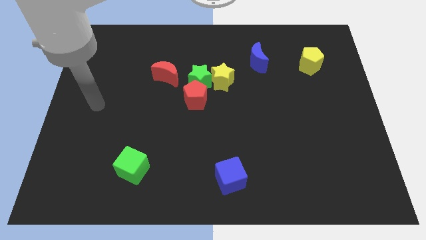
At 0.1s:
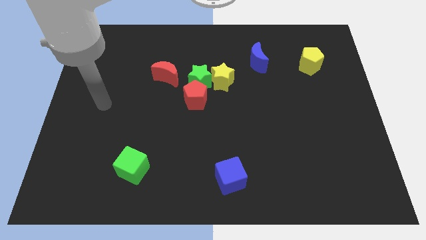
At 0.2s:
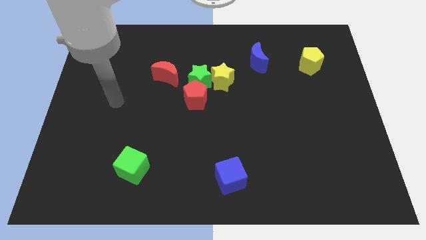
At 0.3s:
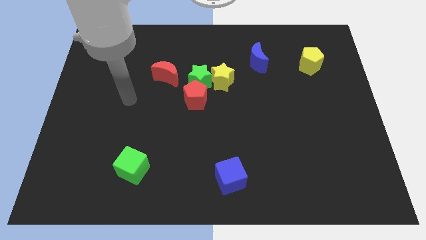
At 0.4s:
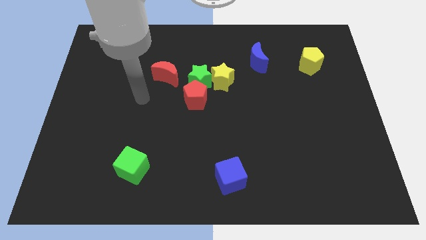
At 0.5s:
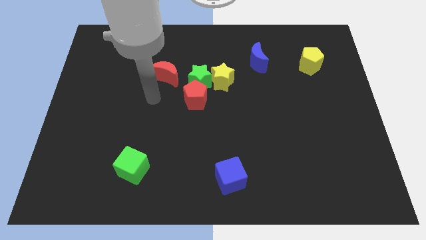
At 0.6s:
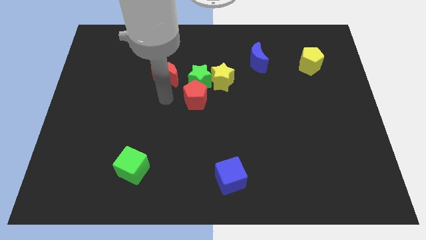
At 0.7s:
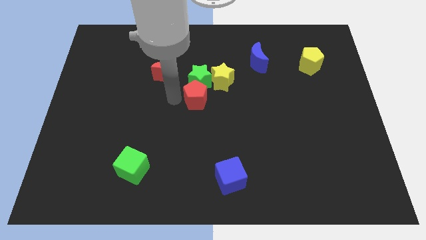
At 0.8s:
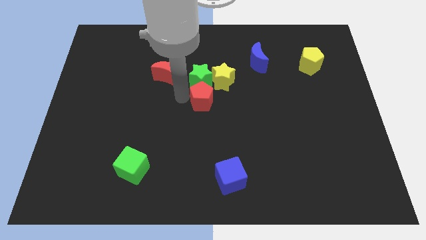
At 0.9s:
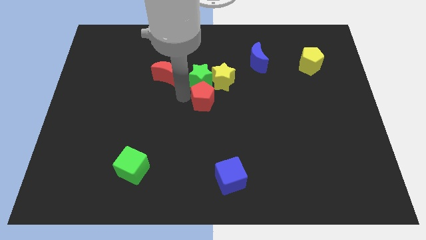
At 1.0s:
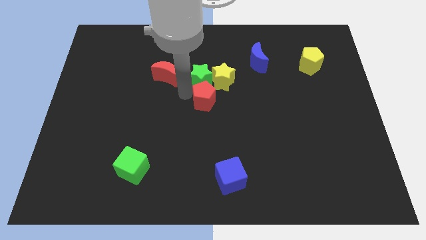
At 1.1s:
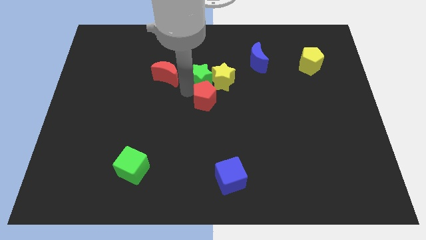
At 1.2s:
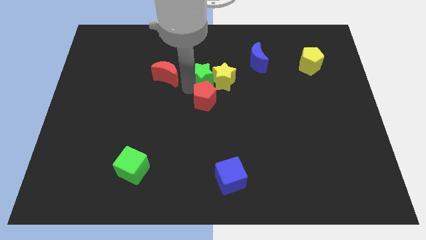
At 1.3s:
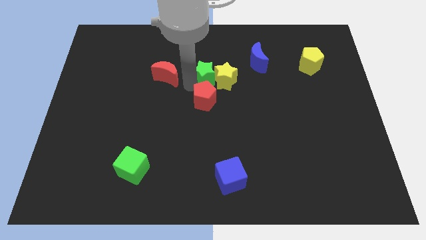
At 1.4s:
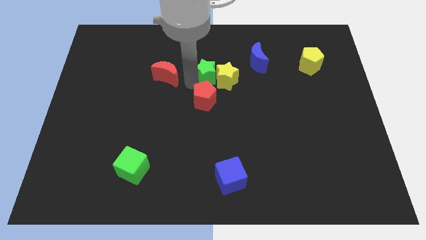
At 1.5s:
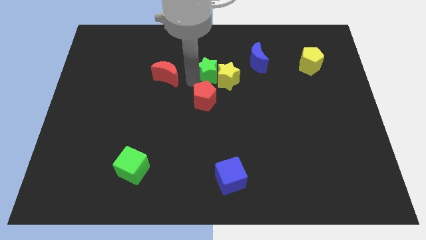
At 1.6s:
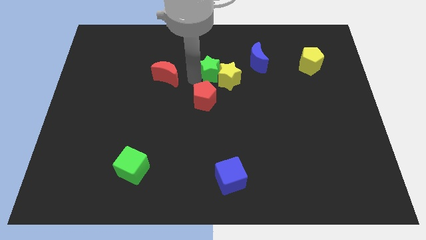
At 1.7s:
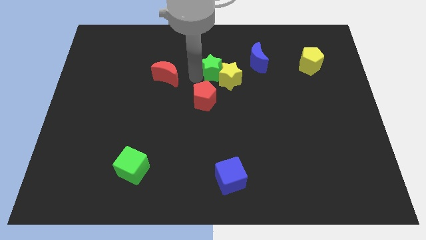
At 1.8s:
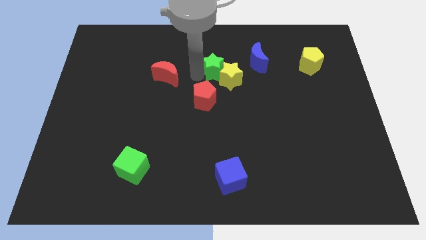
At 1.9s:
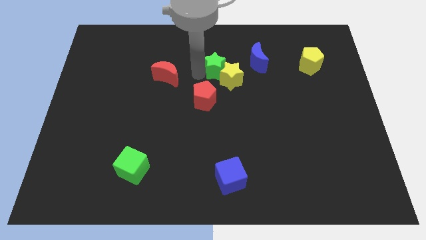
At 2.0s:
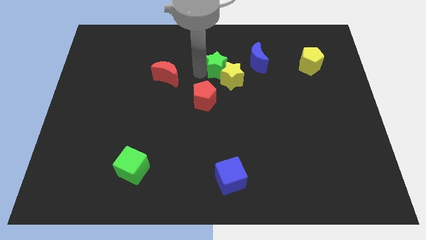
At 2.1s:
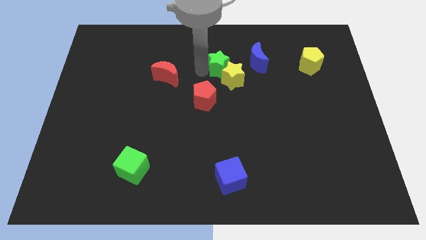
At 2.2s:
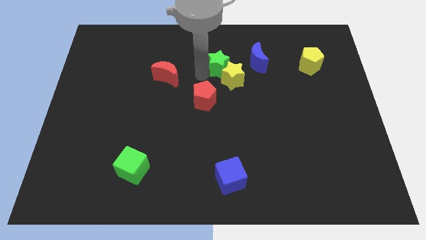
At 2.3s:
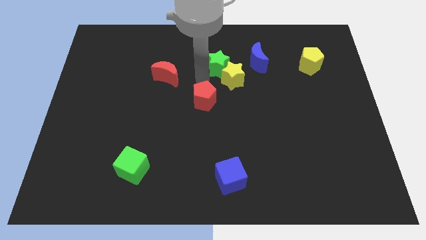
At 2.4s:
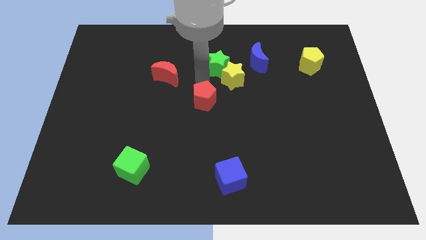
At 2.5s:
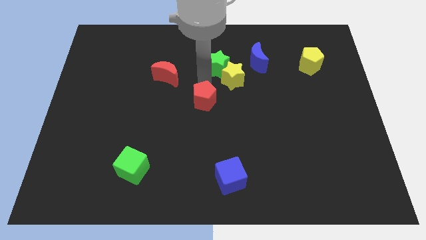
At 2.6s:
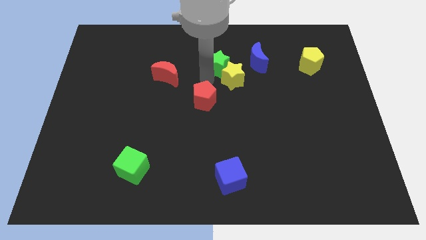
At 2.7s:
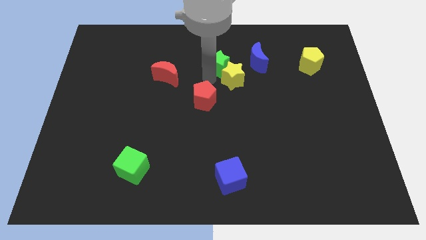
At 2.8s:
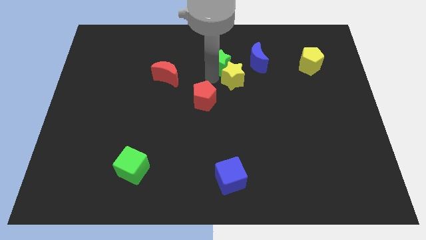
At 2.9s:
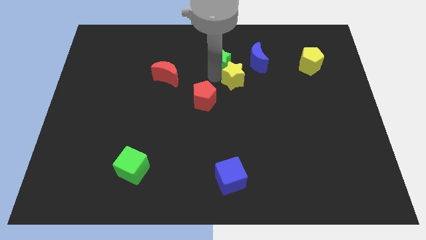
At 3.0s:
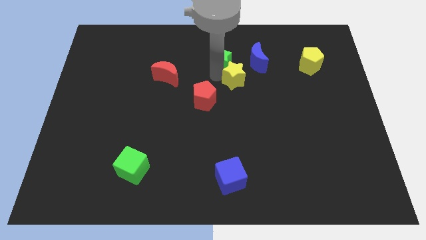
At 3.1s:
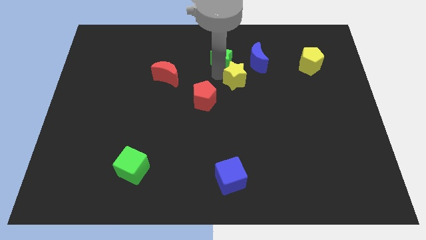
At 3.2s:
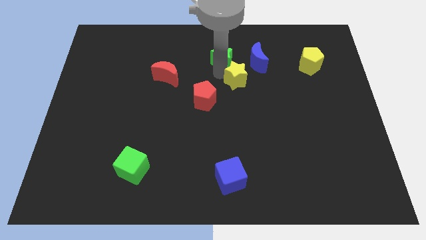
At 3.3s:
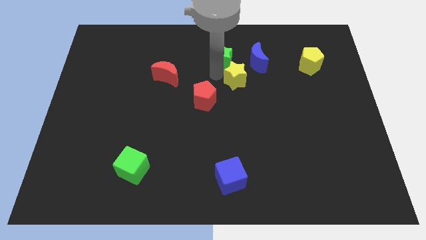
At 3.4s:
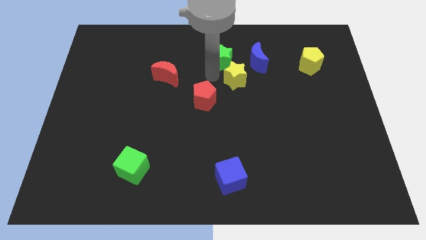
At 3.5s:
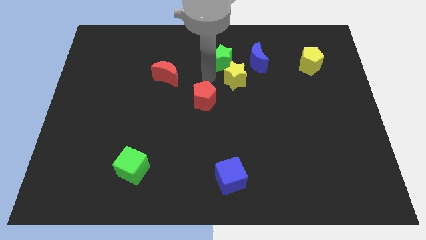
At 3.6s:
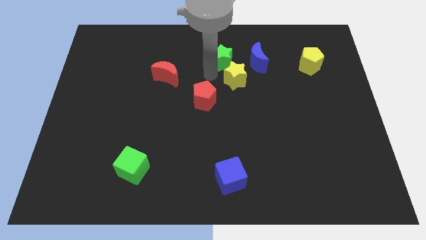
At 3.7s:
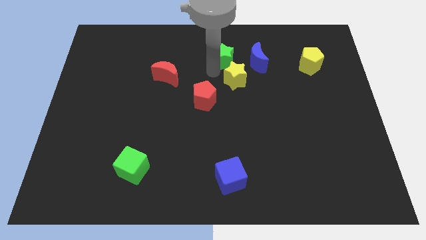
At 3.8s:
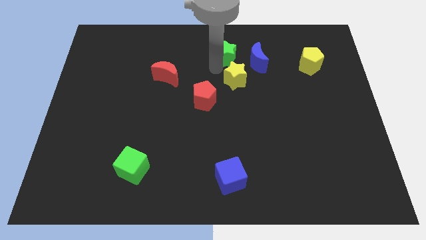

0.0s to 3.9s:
pull the green star apart from the clump

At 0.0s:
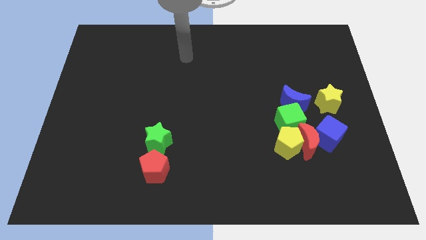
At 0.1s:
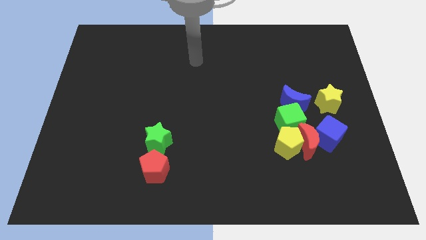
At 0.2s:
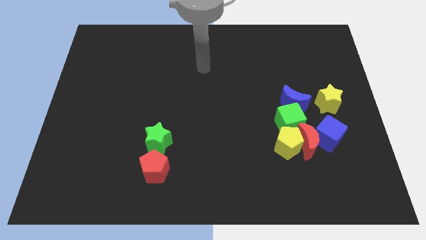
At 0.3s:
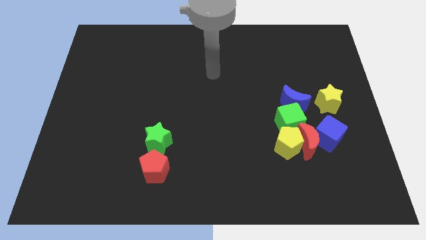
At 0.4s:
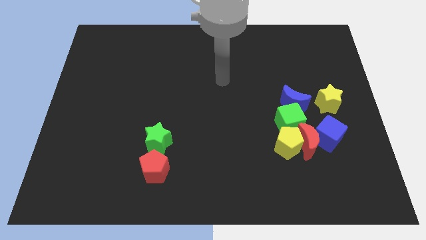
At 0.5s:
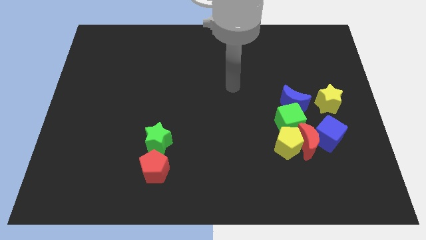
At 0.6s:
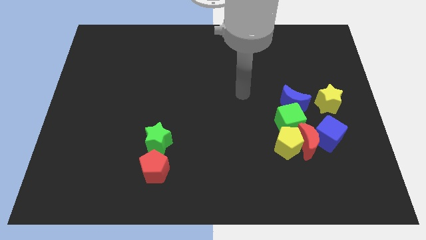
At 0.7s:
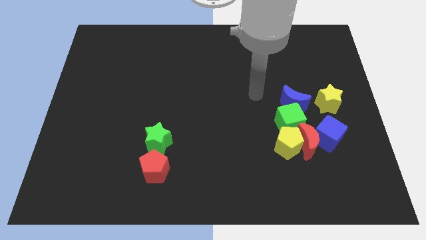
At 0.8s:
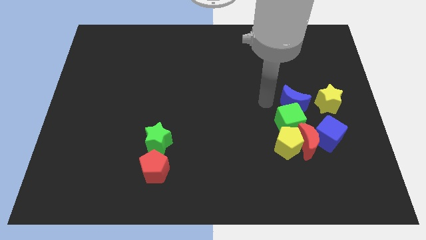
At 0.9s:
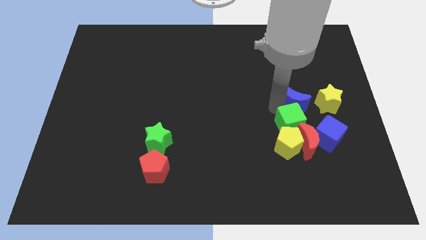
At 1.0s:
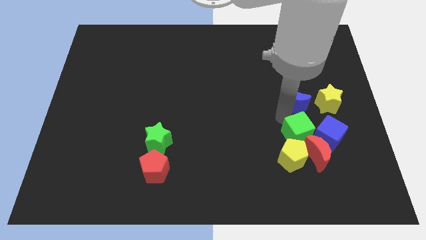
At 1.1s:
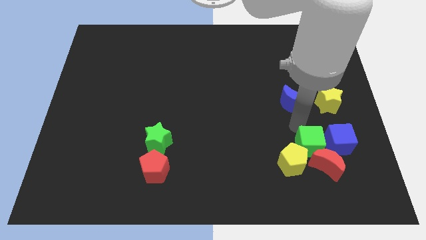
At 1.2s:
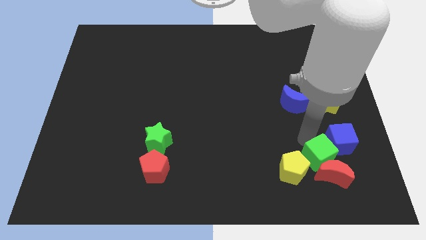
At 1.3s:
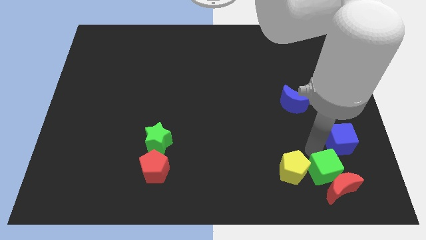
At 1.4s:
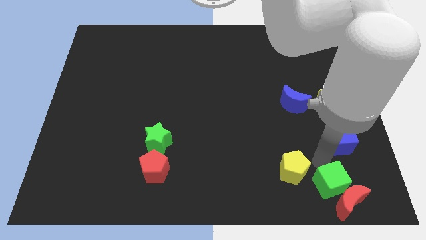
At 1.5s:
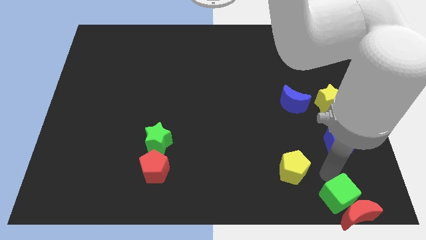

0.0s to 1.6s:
move the red moon away from the yellow pentagon, blue cube, and green cube

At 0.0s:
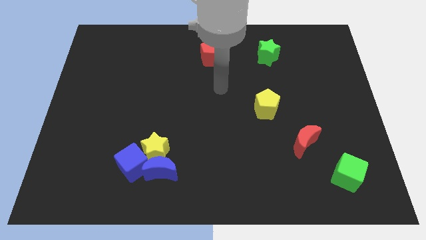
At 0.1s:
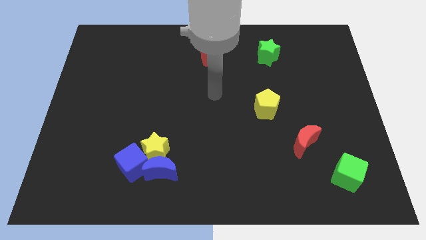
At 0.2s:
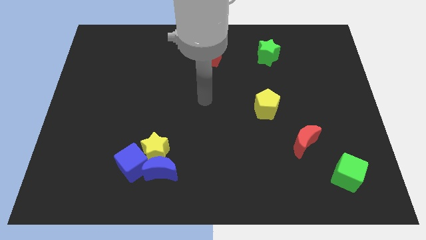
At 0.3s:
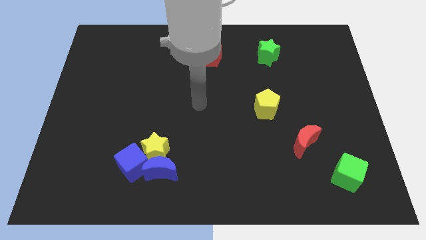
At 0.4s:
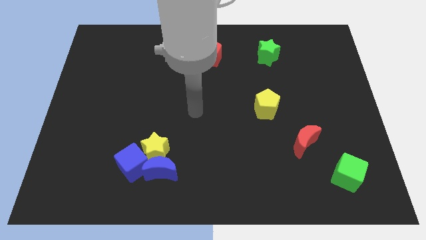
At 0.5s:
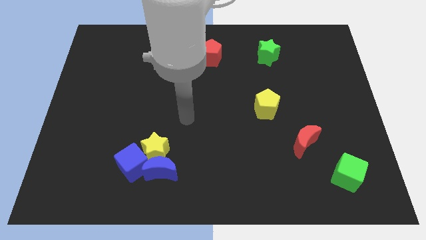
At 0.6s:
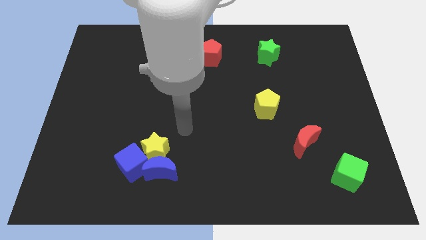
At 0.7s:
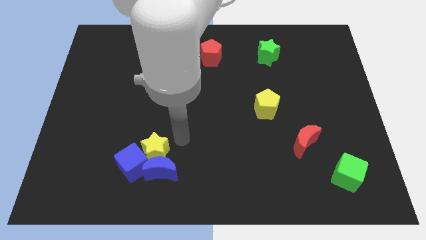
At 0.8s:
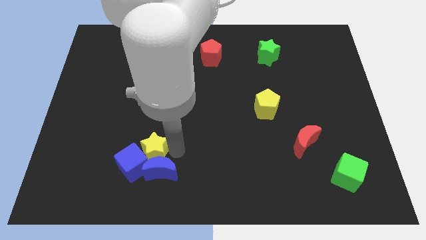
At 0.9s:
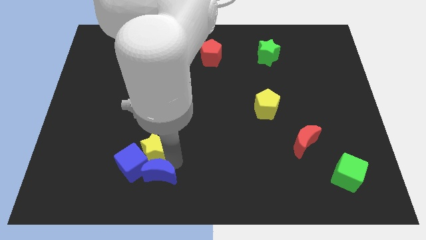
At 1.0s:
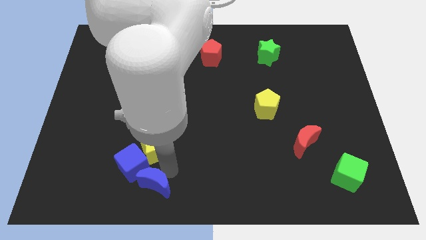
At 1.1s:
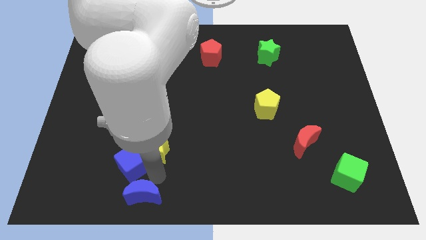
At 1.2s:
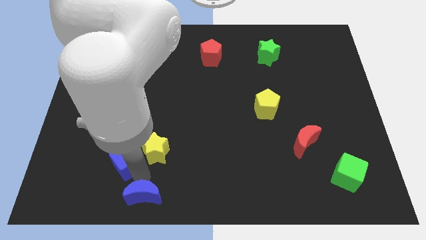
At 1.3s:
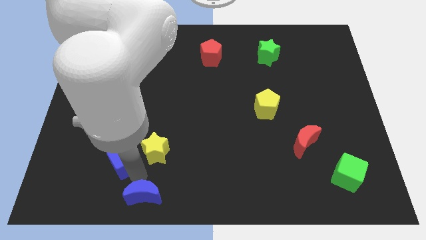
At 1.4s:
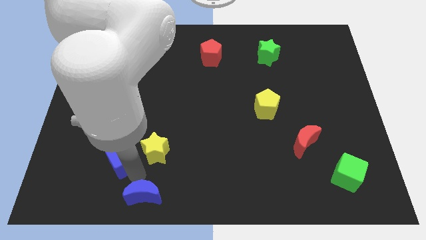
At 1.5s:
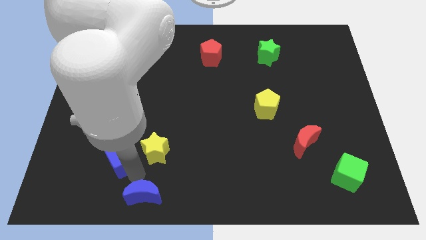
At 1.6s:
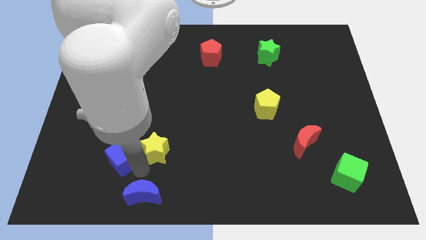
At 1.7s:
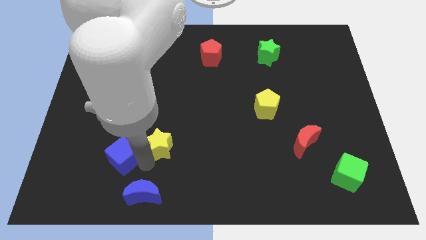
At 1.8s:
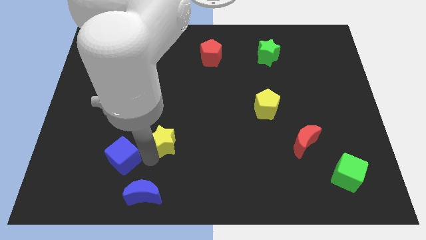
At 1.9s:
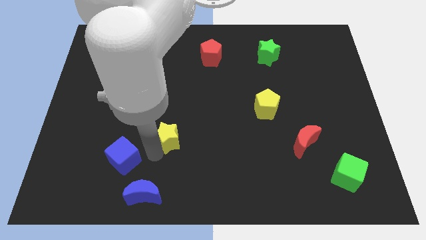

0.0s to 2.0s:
move the yellow star away from the blue moon and blue cube

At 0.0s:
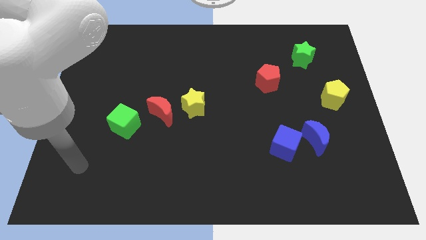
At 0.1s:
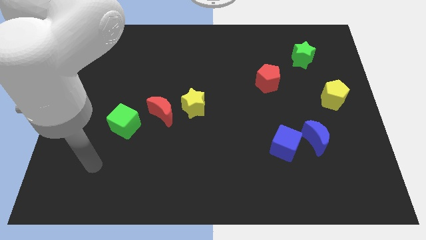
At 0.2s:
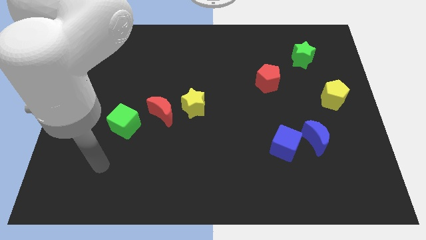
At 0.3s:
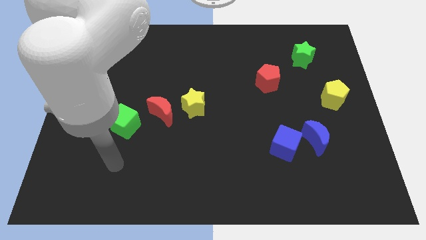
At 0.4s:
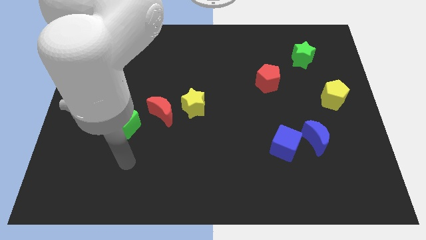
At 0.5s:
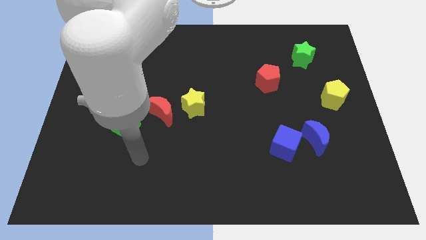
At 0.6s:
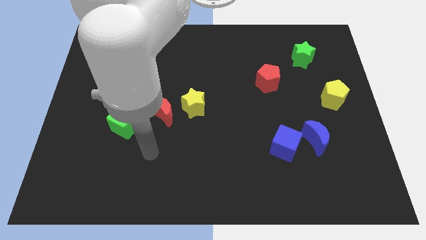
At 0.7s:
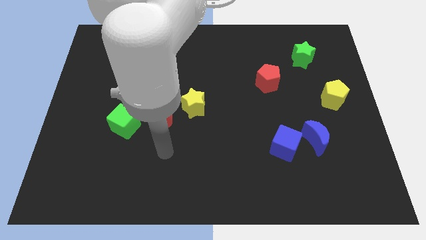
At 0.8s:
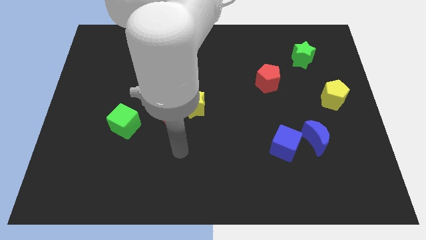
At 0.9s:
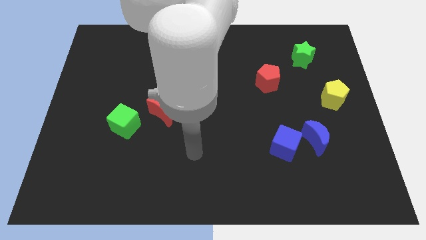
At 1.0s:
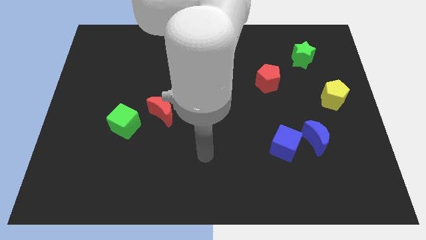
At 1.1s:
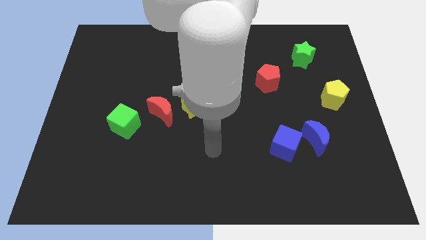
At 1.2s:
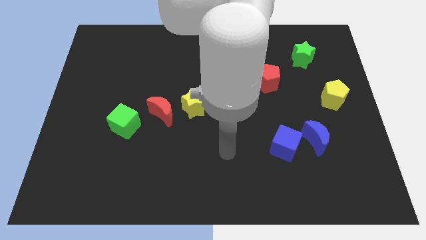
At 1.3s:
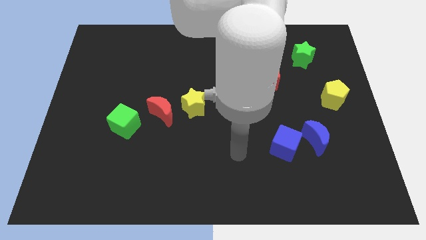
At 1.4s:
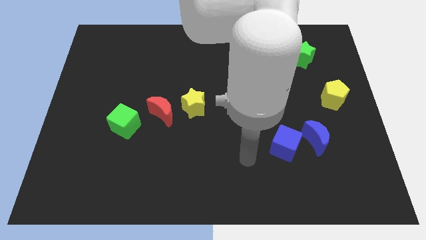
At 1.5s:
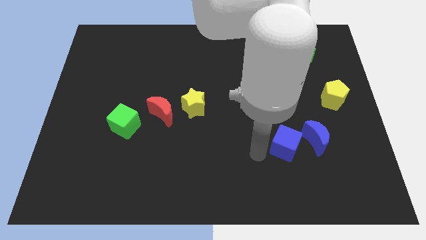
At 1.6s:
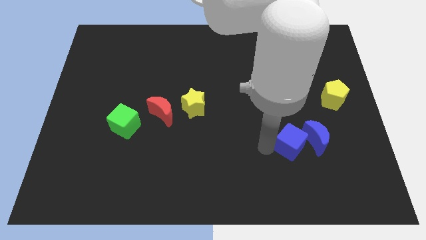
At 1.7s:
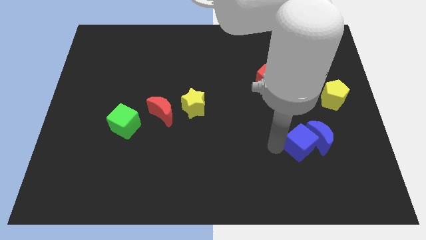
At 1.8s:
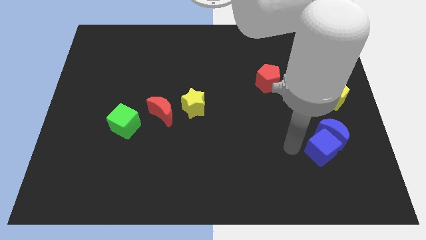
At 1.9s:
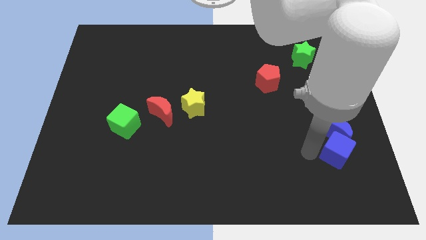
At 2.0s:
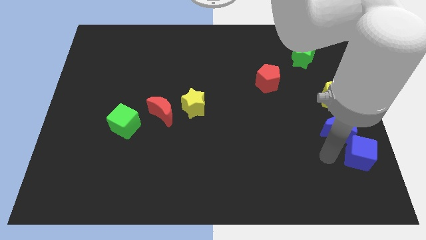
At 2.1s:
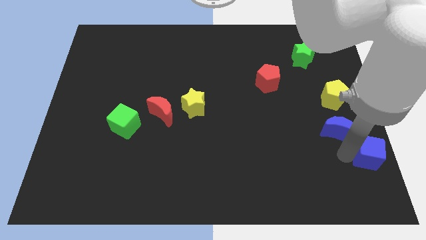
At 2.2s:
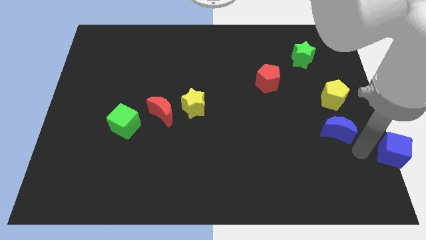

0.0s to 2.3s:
move the blue moon away from the blue cube
